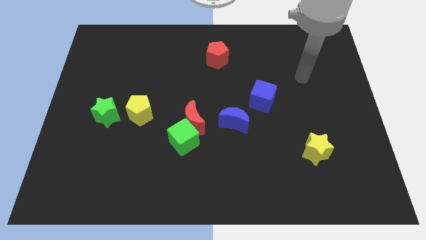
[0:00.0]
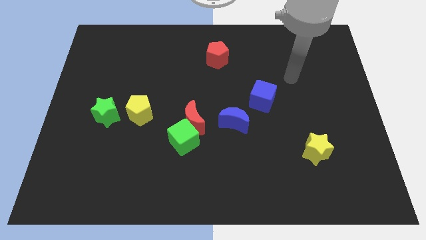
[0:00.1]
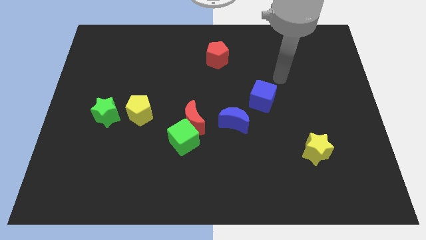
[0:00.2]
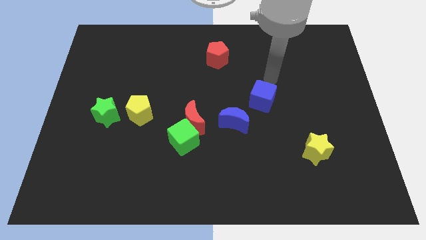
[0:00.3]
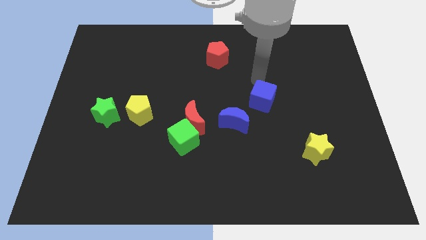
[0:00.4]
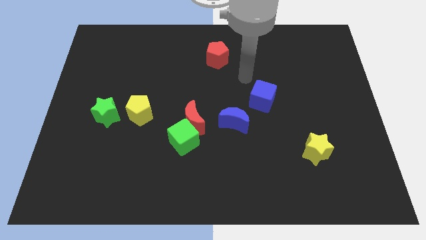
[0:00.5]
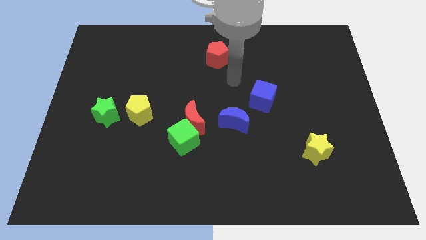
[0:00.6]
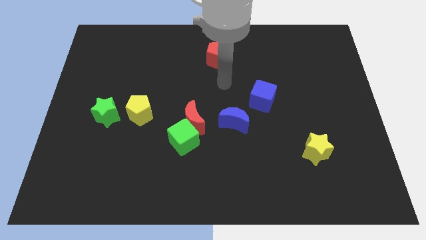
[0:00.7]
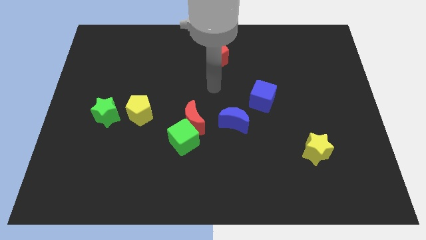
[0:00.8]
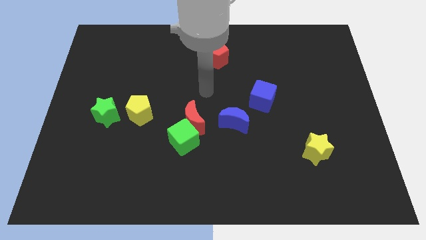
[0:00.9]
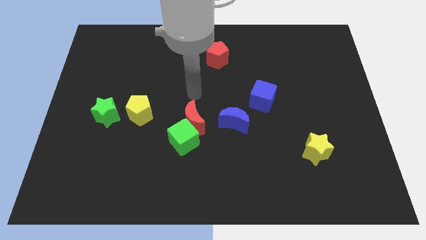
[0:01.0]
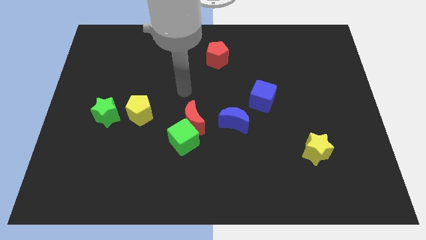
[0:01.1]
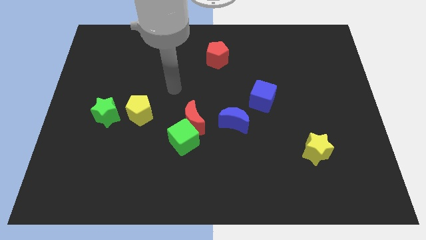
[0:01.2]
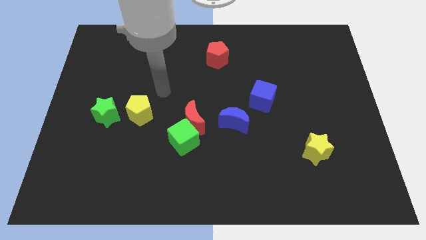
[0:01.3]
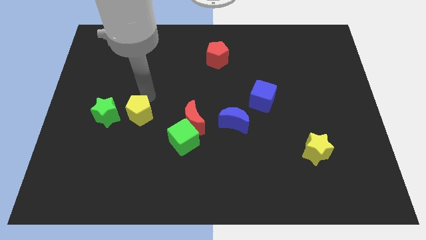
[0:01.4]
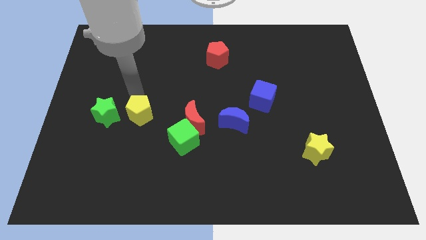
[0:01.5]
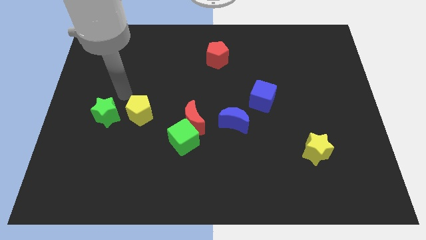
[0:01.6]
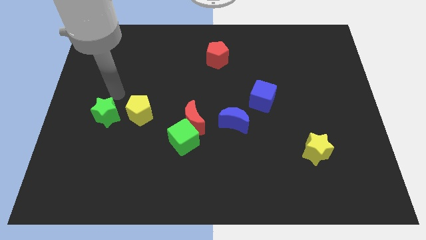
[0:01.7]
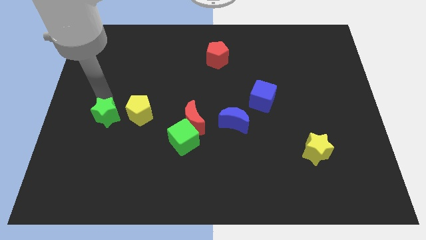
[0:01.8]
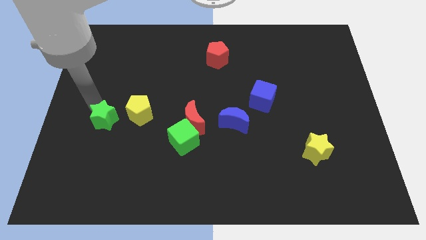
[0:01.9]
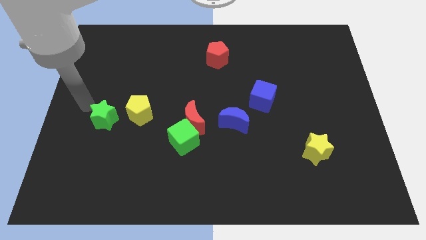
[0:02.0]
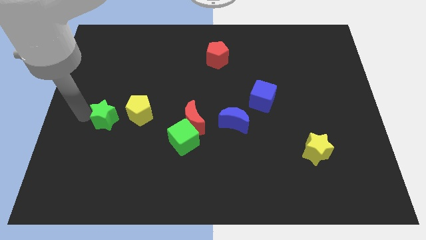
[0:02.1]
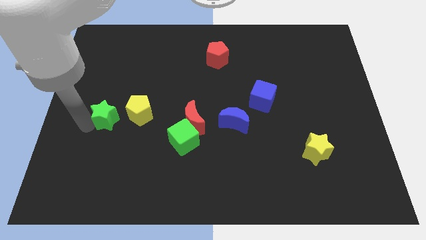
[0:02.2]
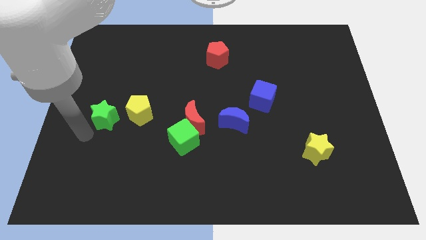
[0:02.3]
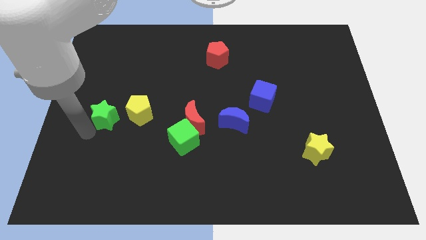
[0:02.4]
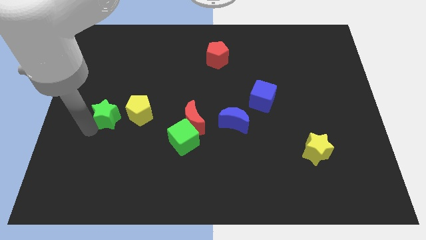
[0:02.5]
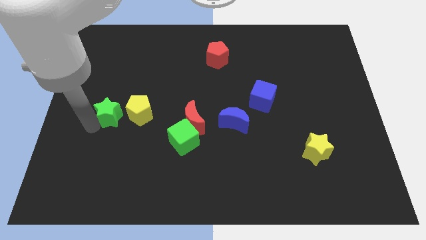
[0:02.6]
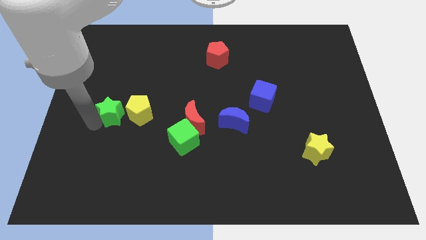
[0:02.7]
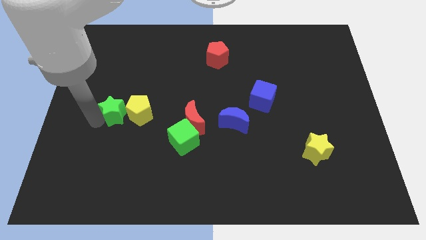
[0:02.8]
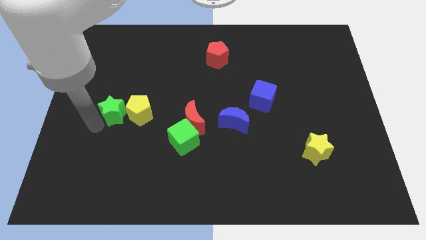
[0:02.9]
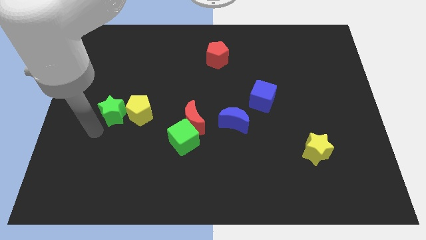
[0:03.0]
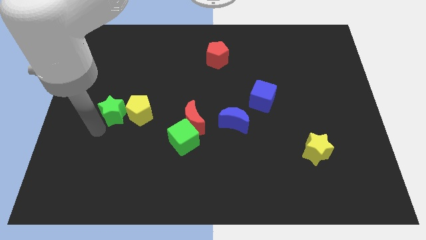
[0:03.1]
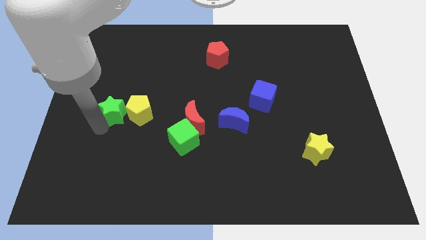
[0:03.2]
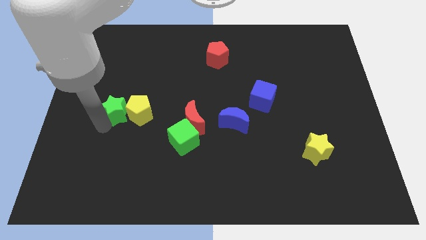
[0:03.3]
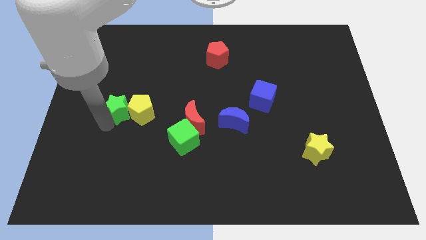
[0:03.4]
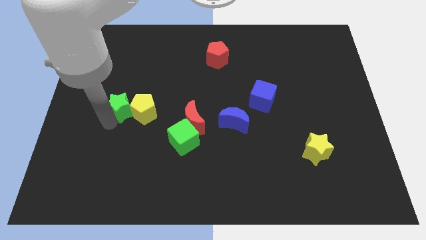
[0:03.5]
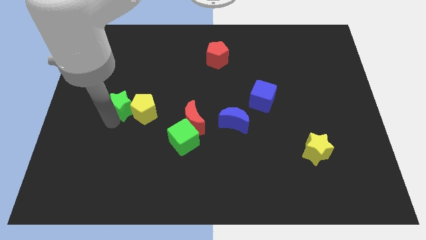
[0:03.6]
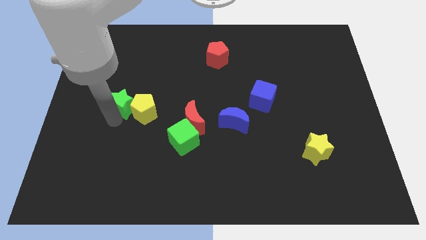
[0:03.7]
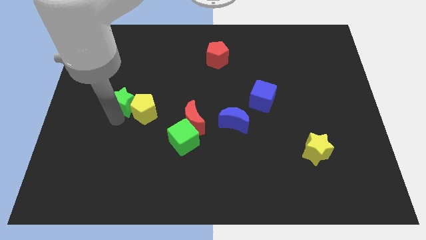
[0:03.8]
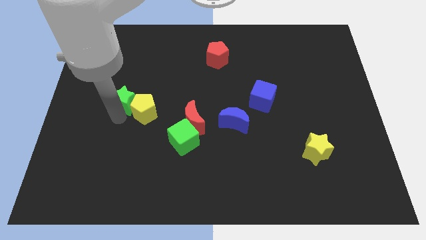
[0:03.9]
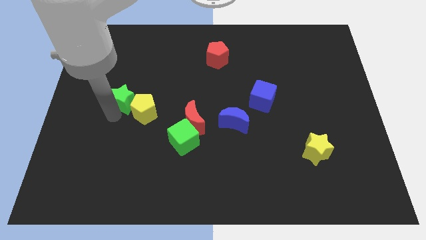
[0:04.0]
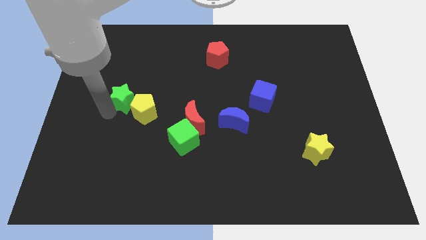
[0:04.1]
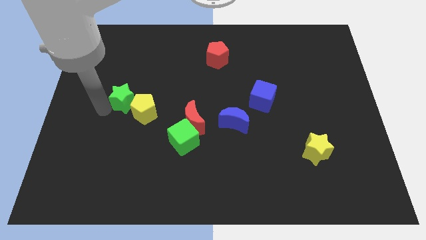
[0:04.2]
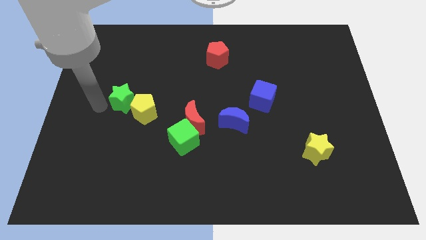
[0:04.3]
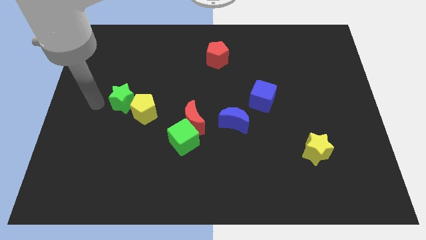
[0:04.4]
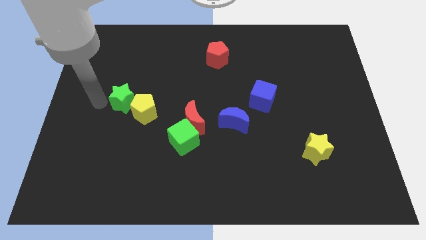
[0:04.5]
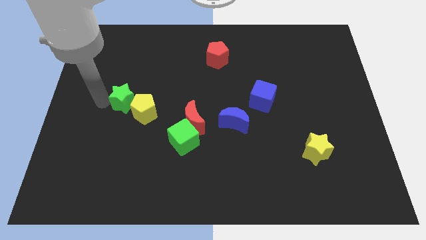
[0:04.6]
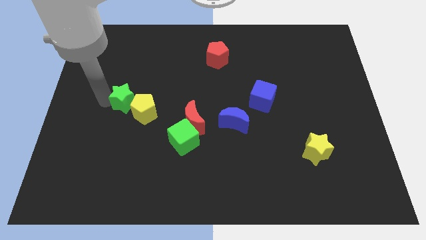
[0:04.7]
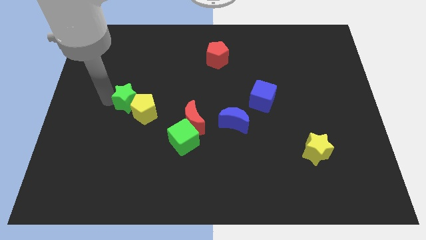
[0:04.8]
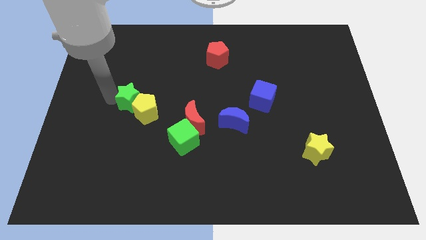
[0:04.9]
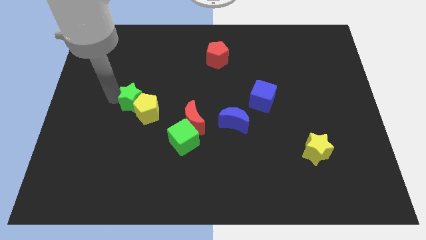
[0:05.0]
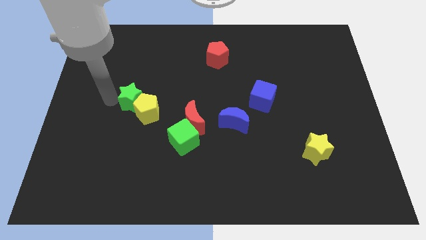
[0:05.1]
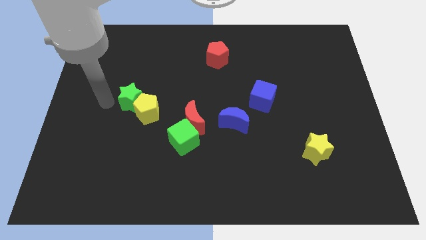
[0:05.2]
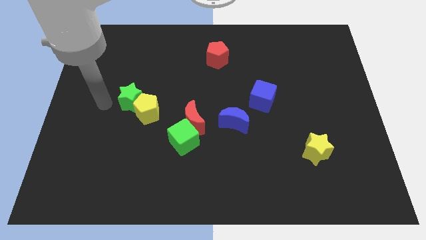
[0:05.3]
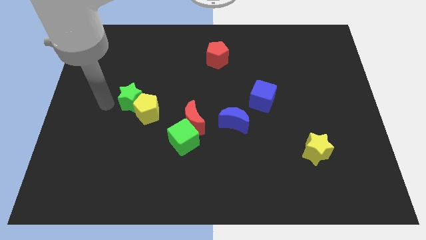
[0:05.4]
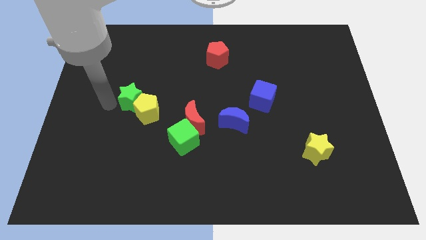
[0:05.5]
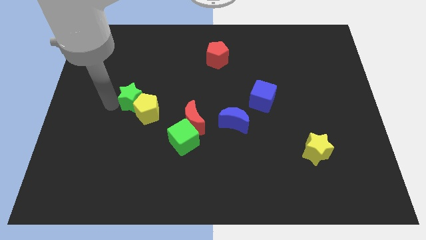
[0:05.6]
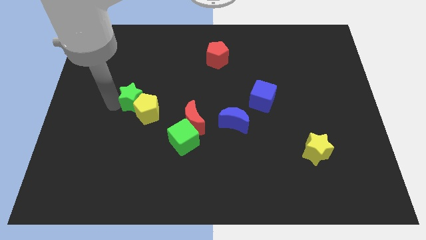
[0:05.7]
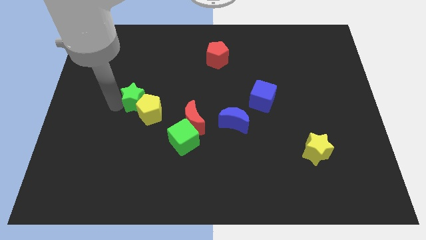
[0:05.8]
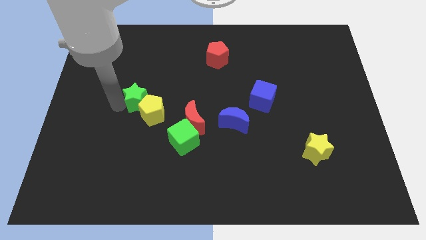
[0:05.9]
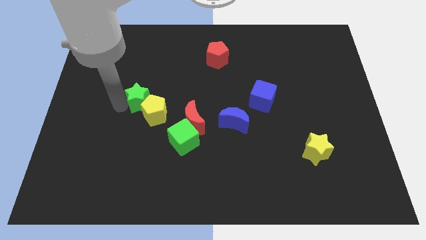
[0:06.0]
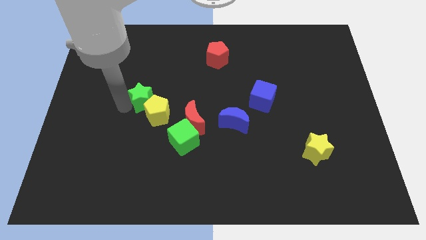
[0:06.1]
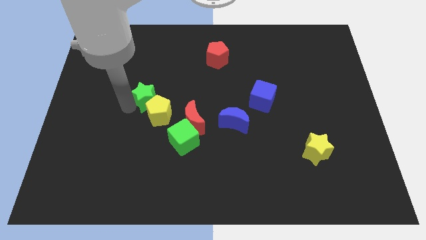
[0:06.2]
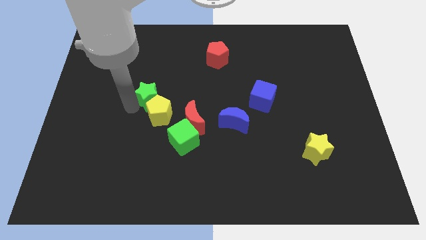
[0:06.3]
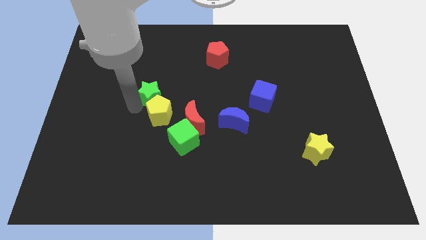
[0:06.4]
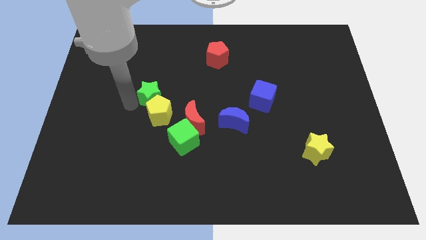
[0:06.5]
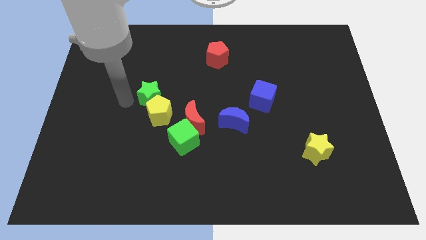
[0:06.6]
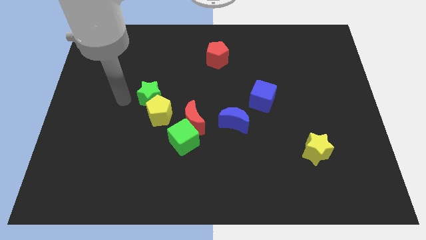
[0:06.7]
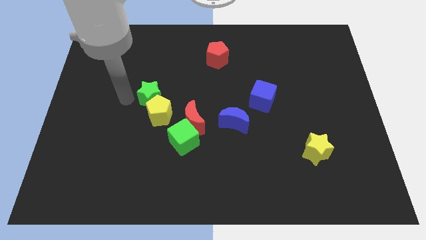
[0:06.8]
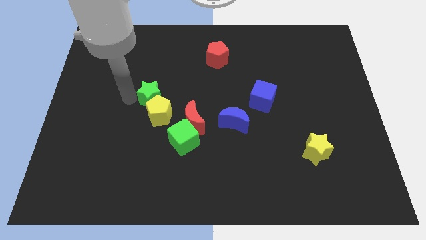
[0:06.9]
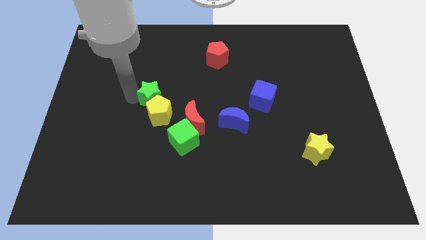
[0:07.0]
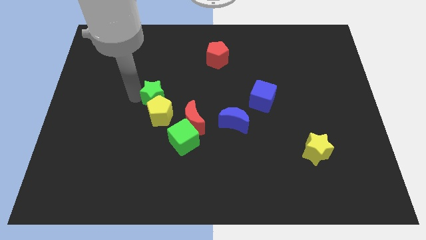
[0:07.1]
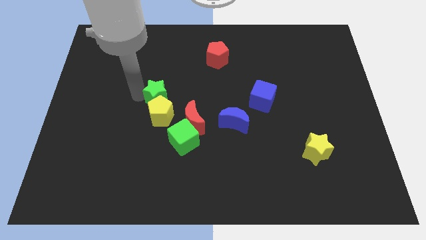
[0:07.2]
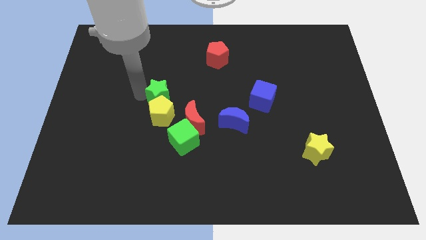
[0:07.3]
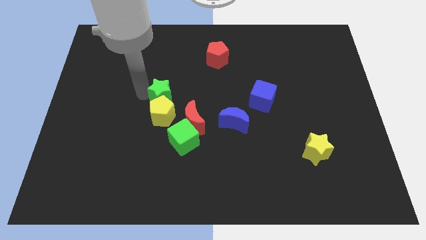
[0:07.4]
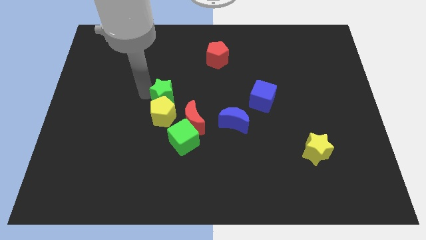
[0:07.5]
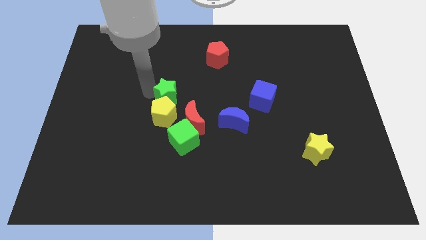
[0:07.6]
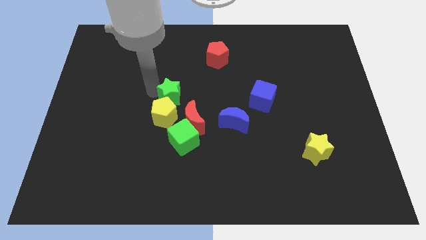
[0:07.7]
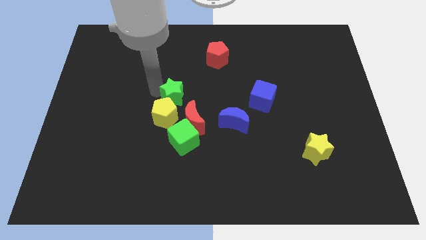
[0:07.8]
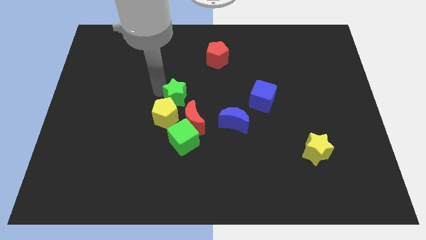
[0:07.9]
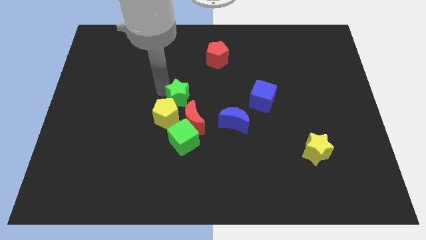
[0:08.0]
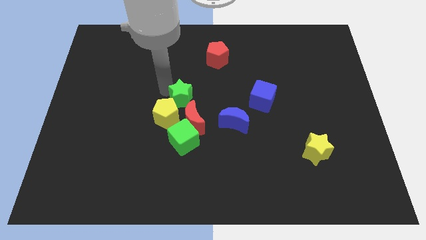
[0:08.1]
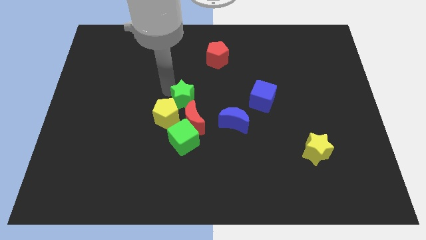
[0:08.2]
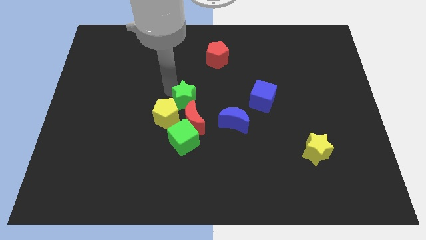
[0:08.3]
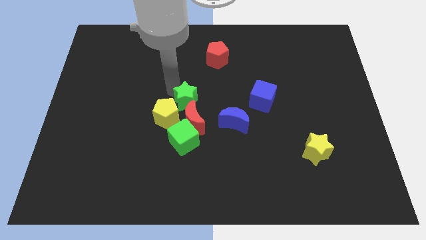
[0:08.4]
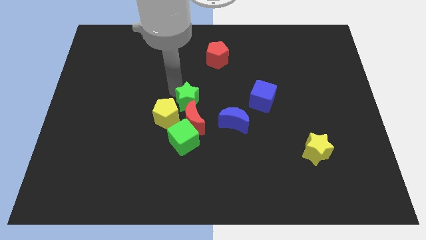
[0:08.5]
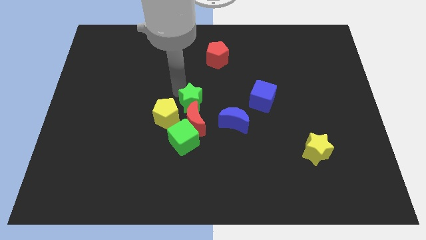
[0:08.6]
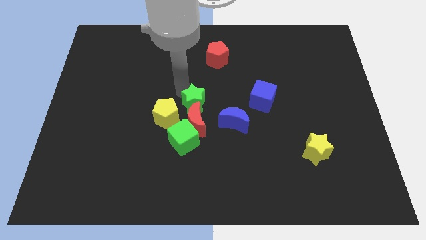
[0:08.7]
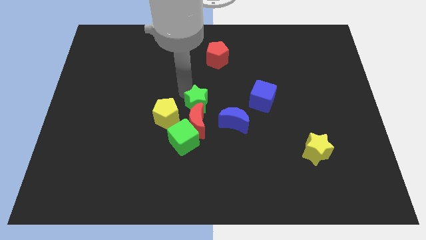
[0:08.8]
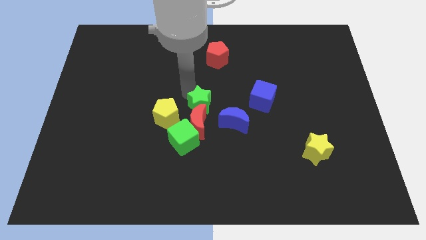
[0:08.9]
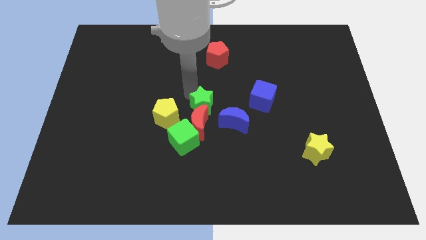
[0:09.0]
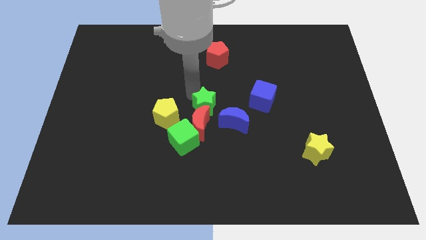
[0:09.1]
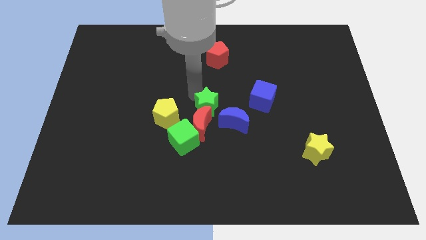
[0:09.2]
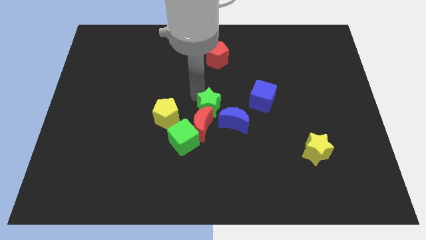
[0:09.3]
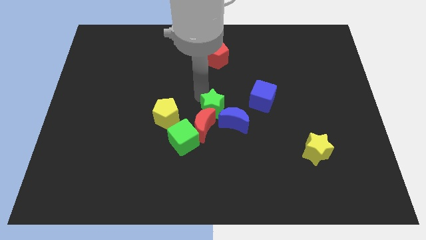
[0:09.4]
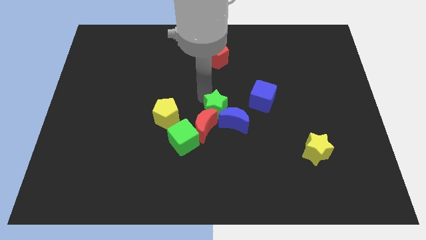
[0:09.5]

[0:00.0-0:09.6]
put the green star towards the blue moon
